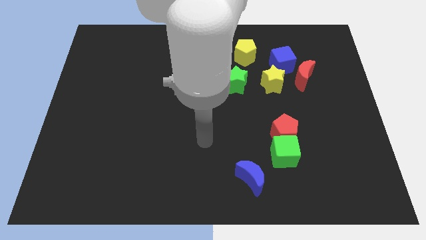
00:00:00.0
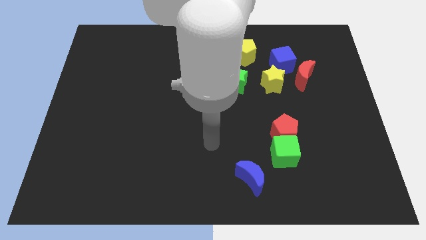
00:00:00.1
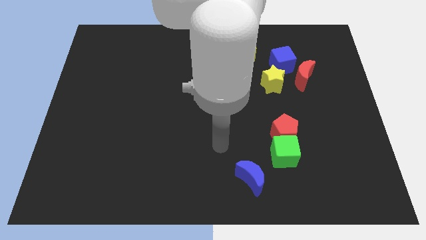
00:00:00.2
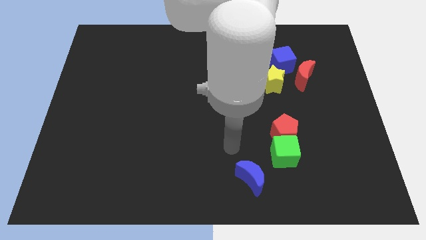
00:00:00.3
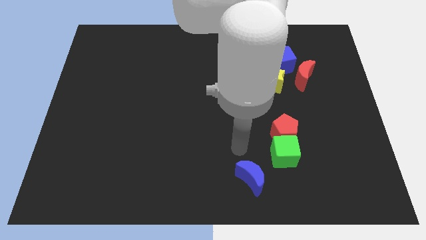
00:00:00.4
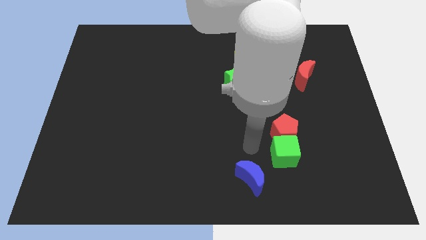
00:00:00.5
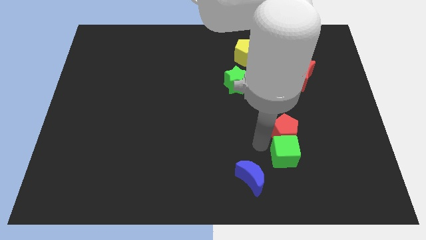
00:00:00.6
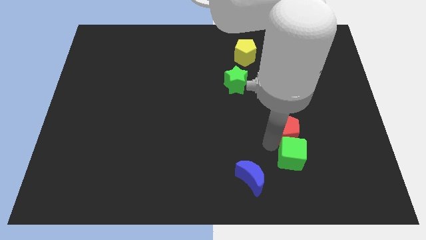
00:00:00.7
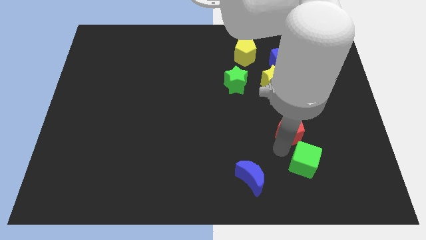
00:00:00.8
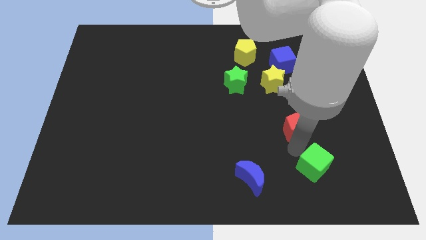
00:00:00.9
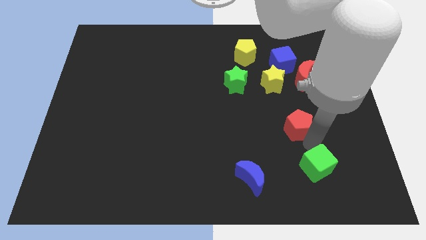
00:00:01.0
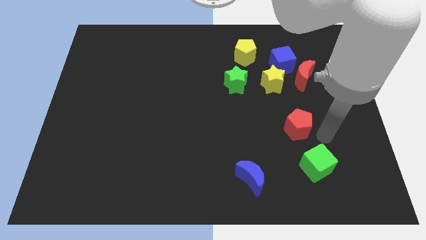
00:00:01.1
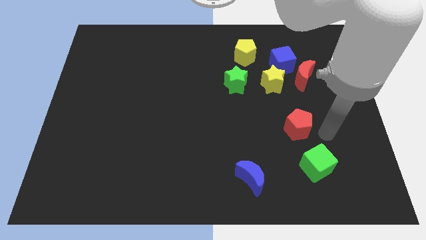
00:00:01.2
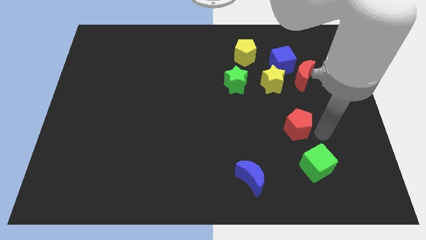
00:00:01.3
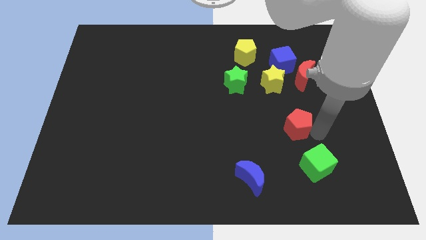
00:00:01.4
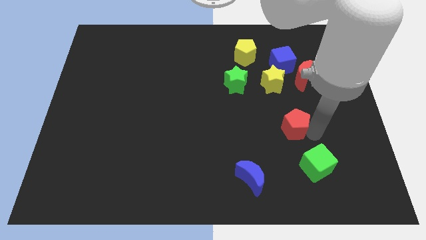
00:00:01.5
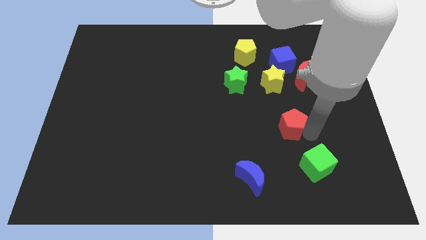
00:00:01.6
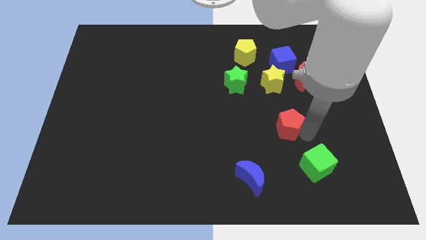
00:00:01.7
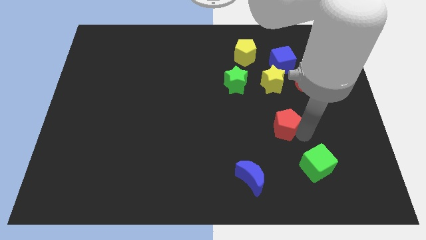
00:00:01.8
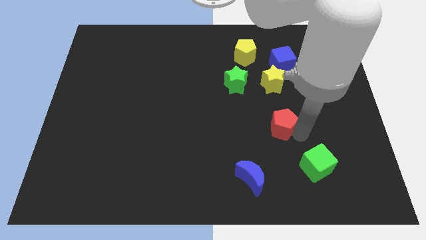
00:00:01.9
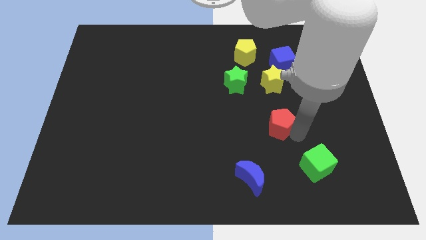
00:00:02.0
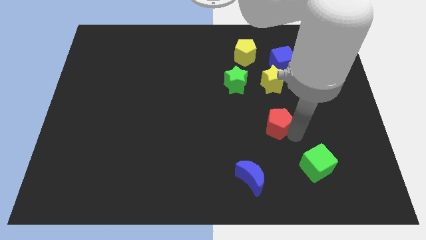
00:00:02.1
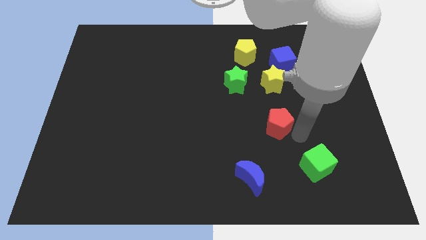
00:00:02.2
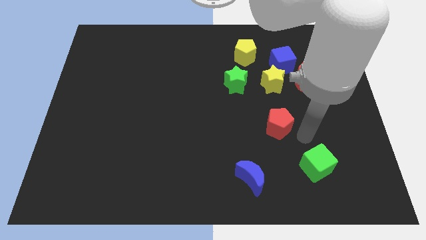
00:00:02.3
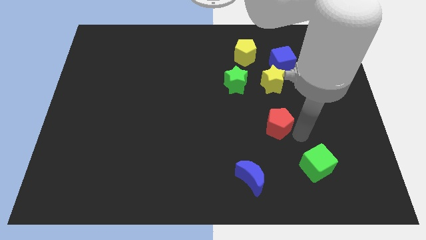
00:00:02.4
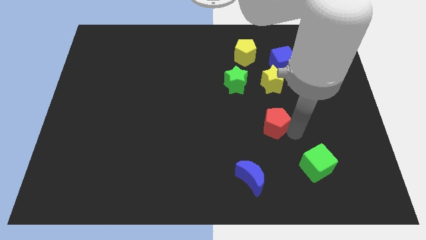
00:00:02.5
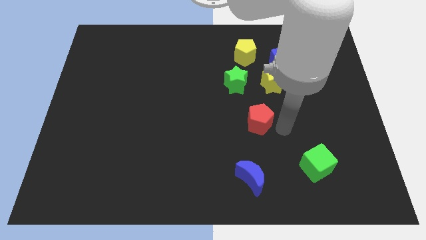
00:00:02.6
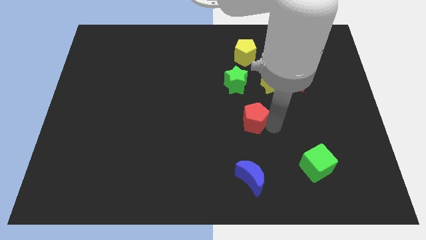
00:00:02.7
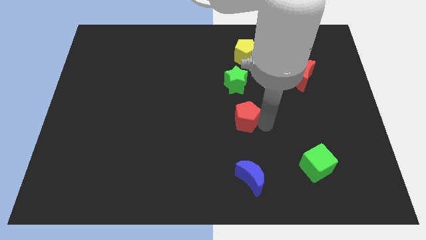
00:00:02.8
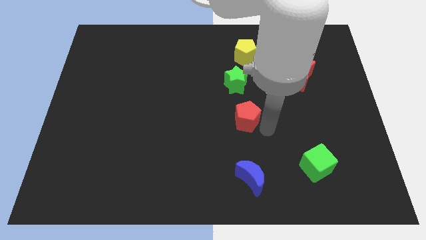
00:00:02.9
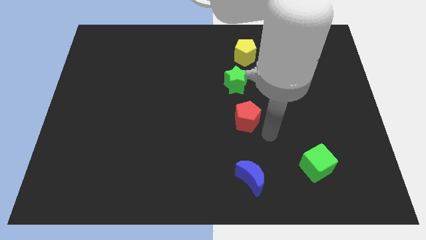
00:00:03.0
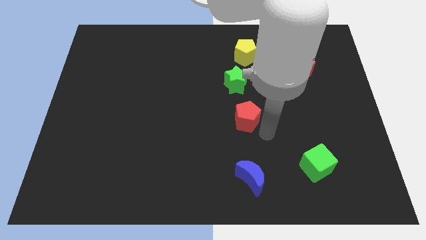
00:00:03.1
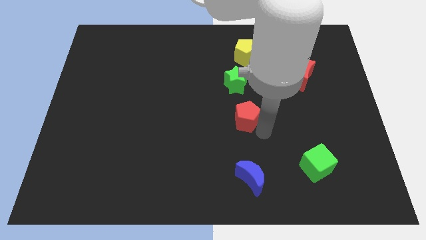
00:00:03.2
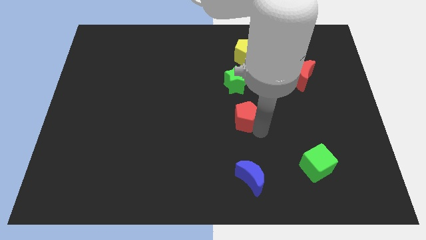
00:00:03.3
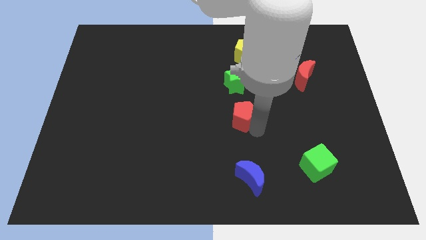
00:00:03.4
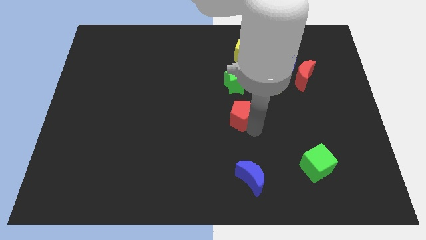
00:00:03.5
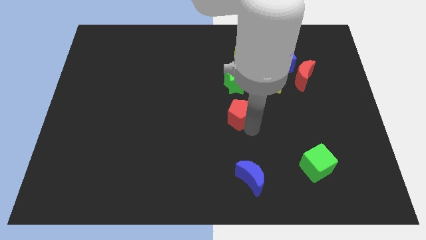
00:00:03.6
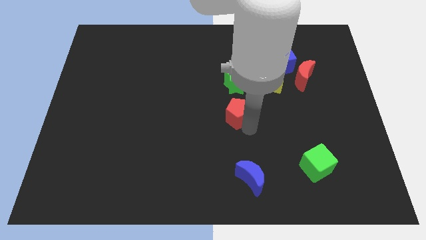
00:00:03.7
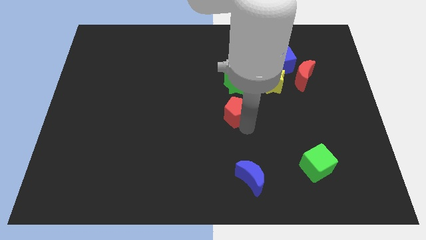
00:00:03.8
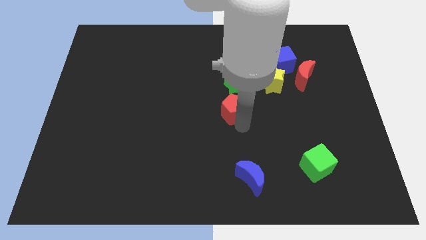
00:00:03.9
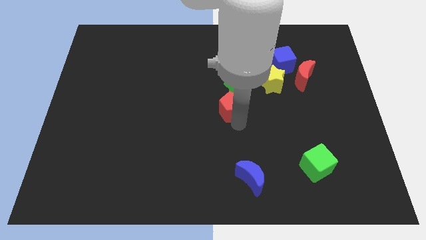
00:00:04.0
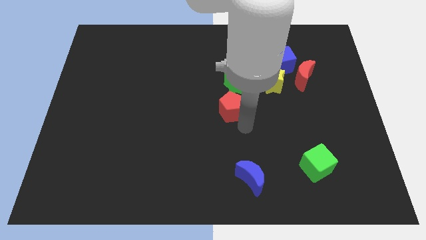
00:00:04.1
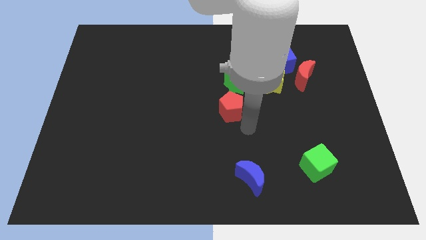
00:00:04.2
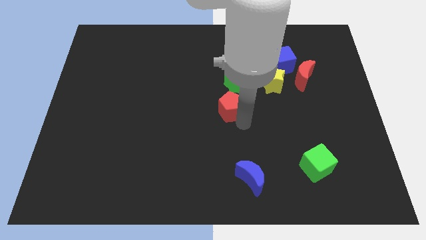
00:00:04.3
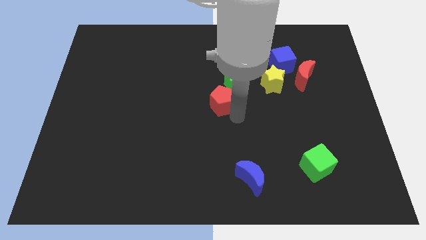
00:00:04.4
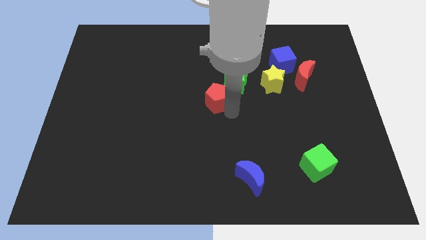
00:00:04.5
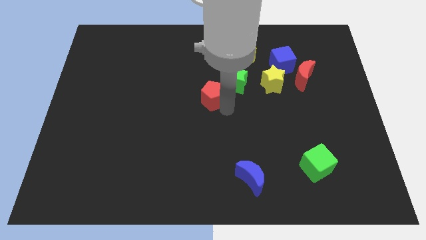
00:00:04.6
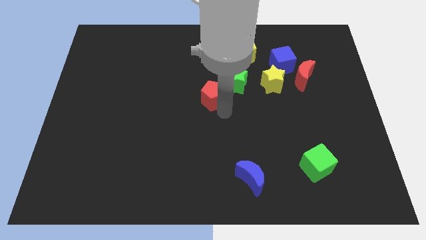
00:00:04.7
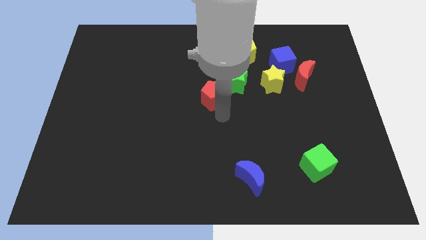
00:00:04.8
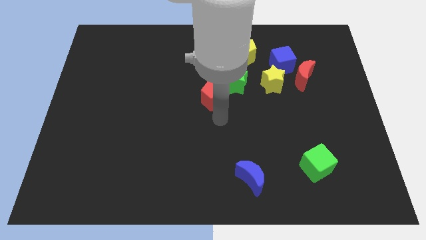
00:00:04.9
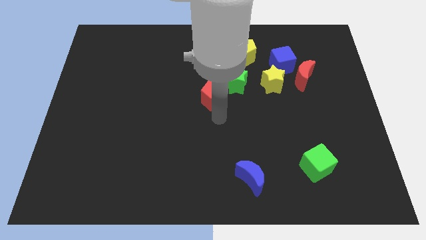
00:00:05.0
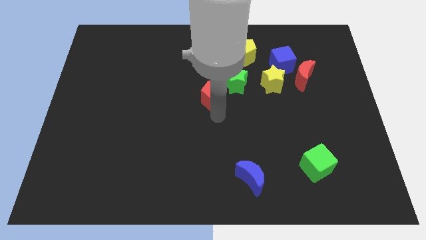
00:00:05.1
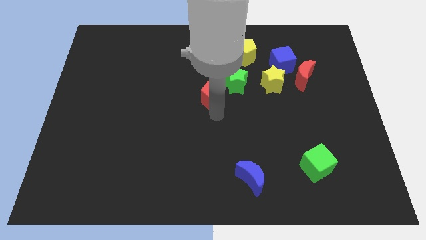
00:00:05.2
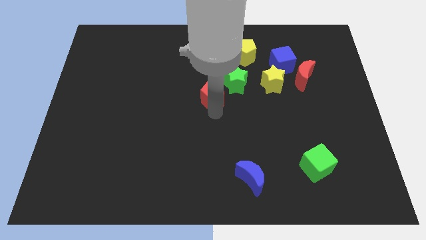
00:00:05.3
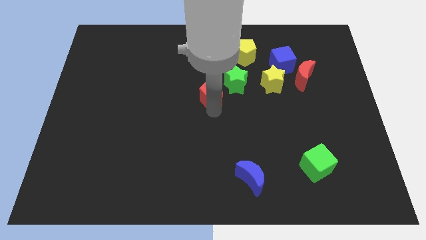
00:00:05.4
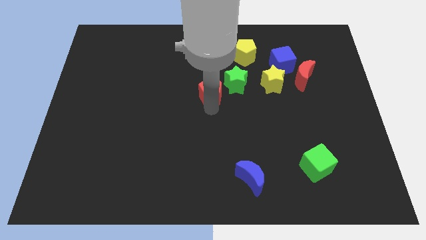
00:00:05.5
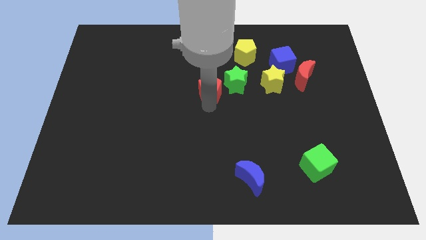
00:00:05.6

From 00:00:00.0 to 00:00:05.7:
move the red pentagon up and left

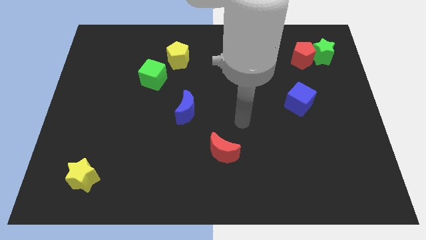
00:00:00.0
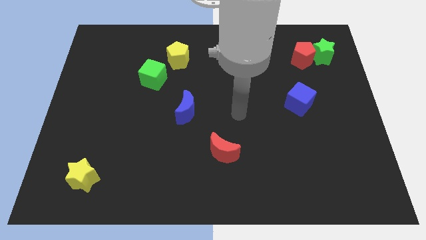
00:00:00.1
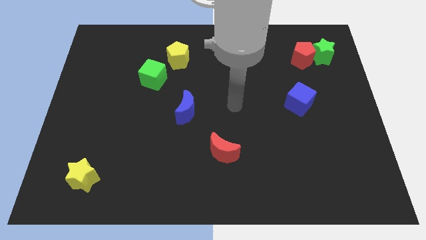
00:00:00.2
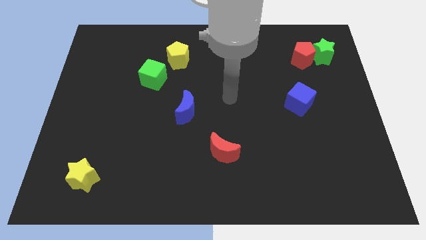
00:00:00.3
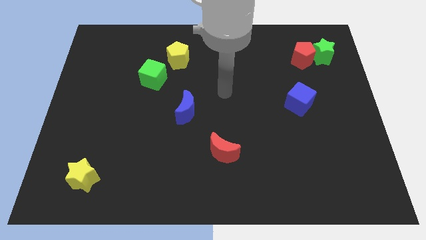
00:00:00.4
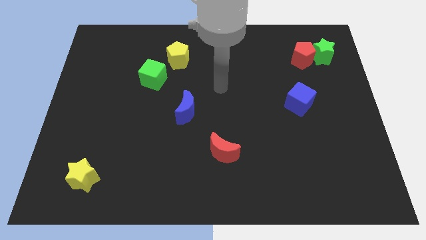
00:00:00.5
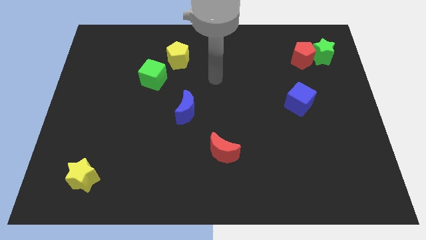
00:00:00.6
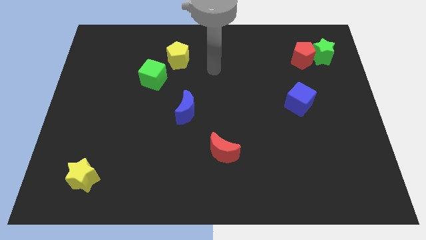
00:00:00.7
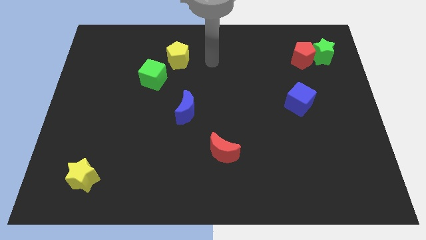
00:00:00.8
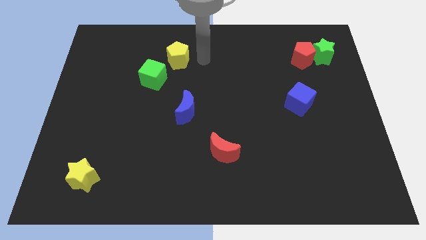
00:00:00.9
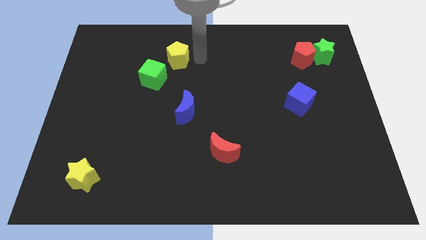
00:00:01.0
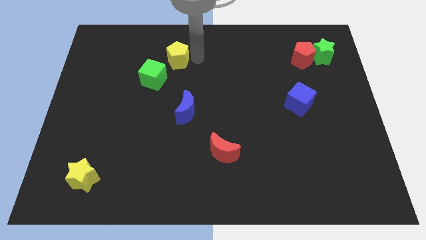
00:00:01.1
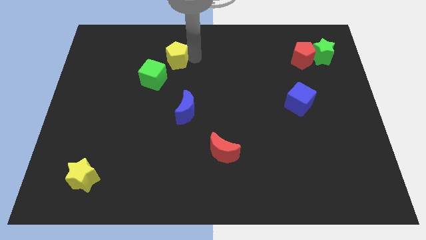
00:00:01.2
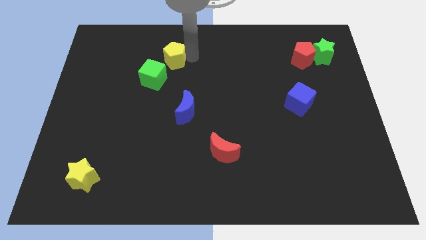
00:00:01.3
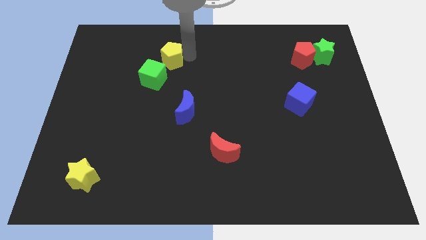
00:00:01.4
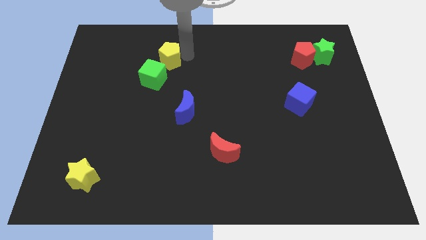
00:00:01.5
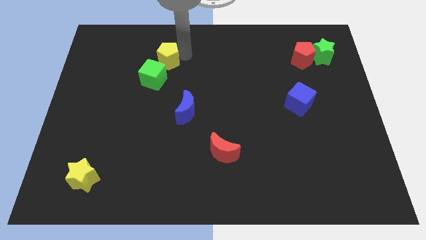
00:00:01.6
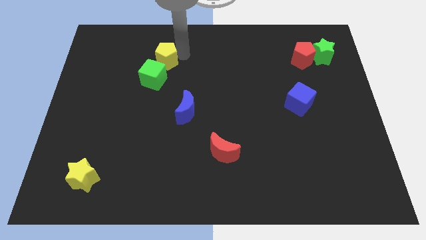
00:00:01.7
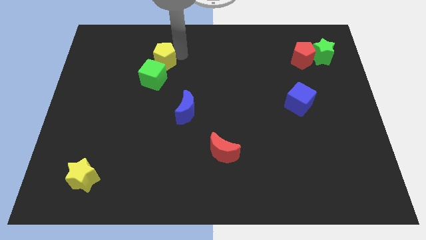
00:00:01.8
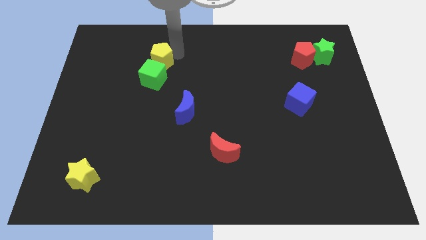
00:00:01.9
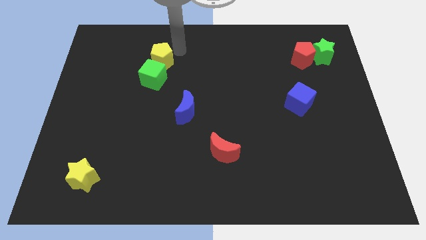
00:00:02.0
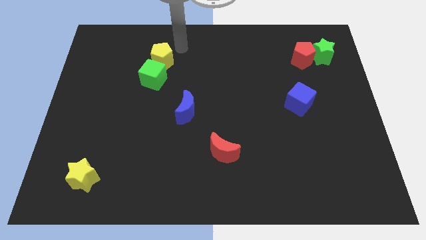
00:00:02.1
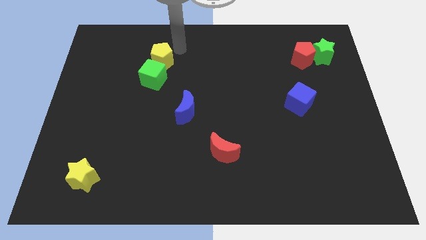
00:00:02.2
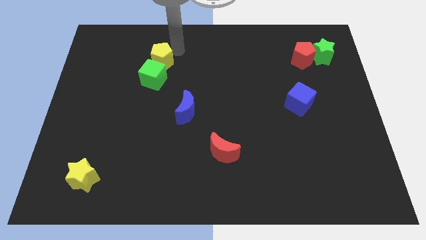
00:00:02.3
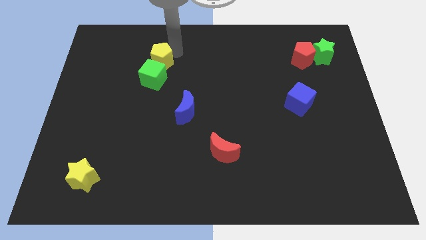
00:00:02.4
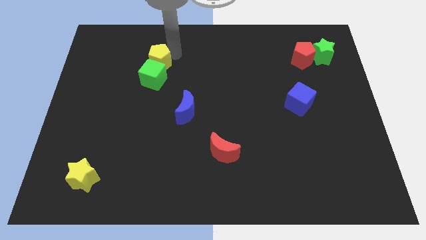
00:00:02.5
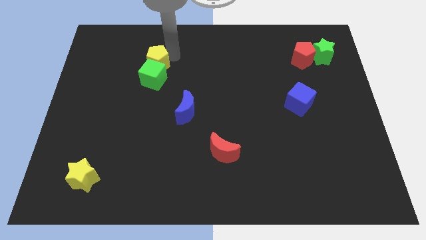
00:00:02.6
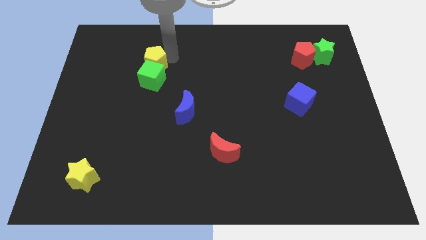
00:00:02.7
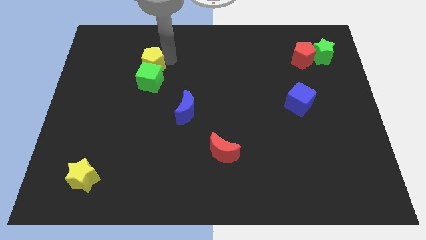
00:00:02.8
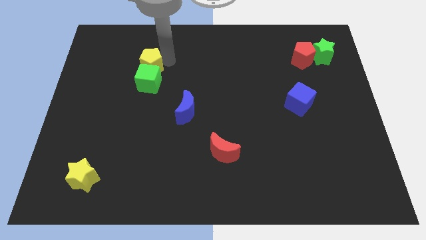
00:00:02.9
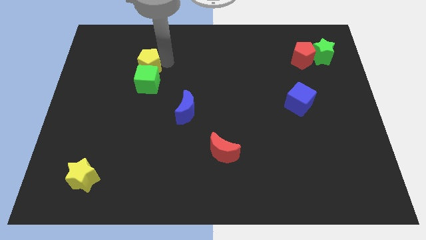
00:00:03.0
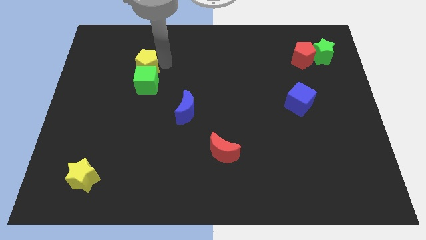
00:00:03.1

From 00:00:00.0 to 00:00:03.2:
slide the yellow pentagon slightly down and then left
